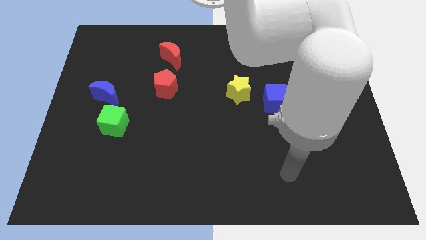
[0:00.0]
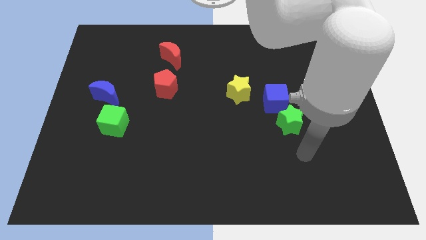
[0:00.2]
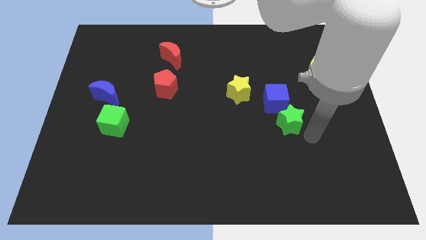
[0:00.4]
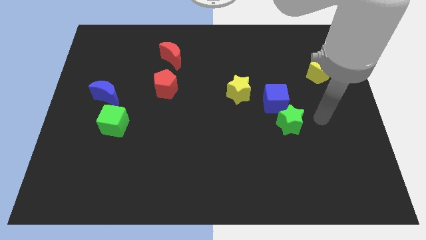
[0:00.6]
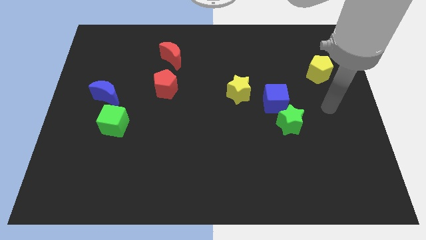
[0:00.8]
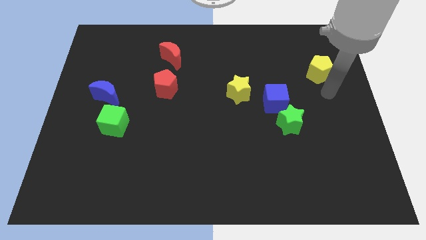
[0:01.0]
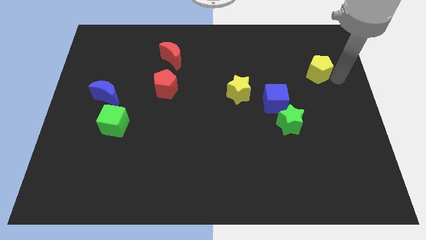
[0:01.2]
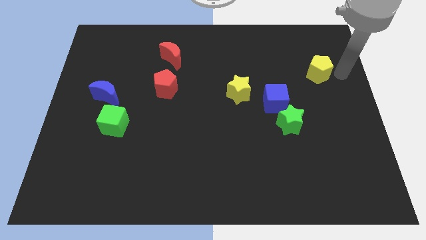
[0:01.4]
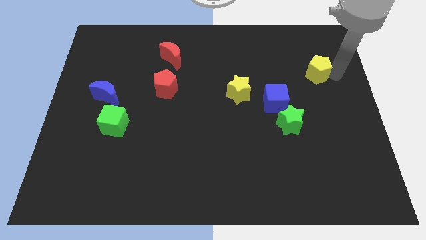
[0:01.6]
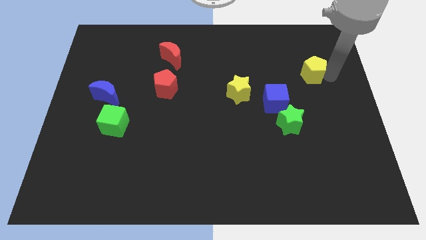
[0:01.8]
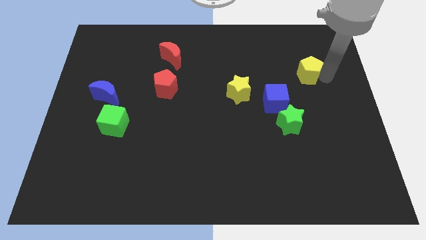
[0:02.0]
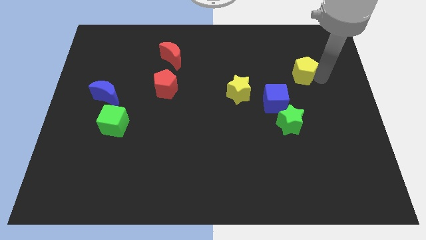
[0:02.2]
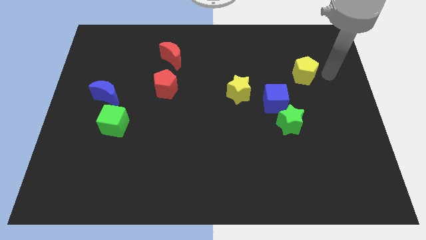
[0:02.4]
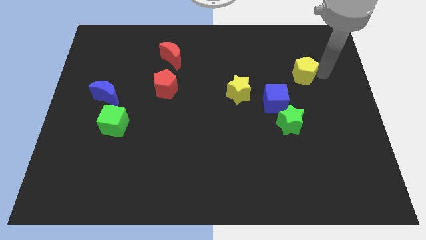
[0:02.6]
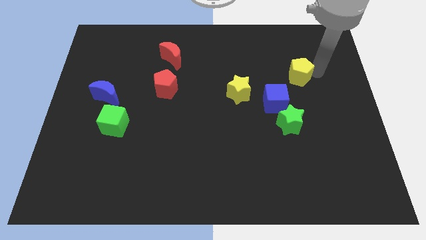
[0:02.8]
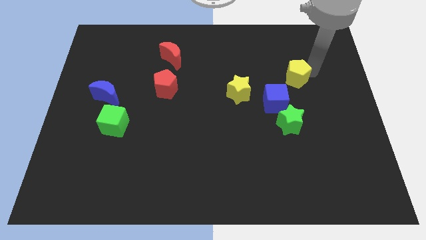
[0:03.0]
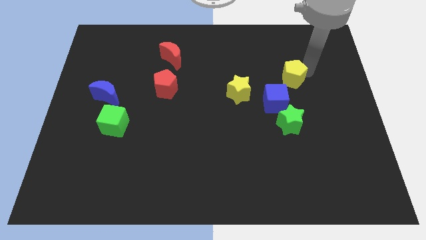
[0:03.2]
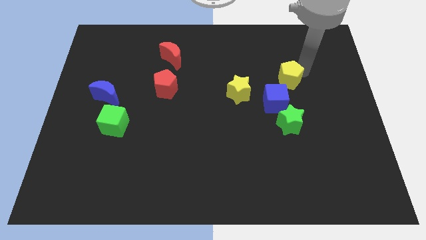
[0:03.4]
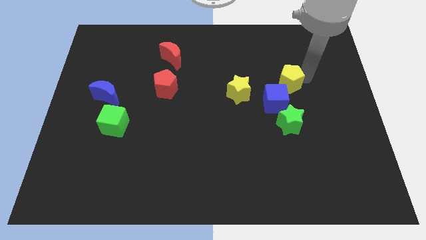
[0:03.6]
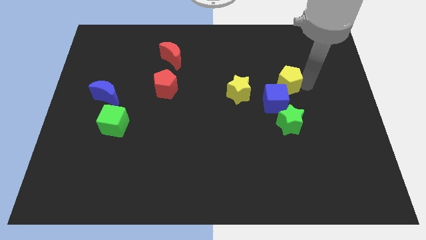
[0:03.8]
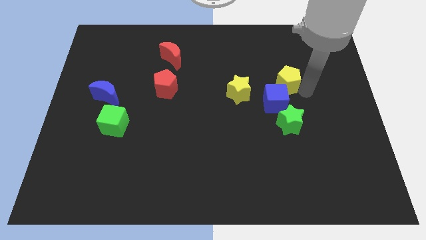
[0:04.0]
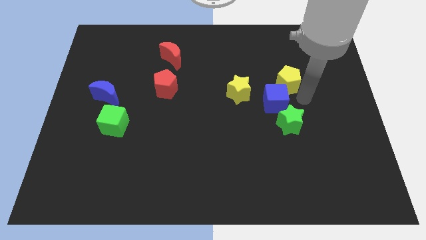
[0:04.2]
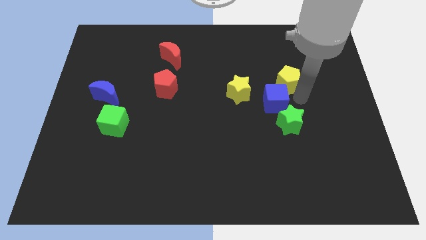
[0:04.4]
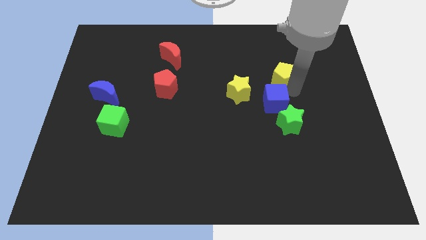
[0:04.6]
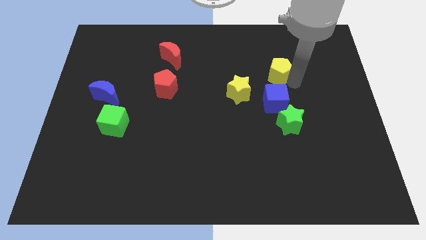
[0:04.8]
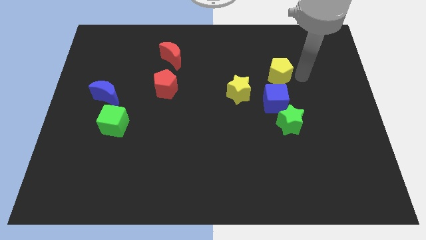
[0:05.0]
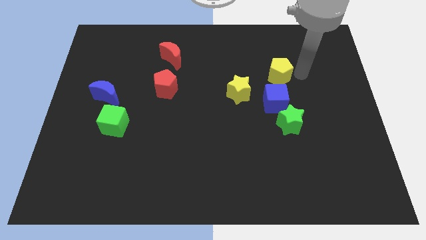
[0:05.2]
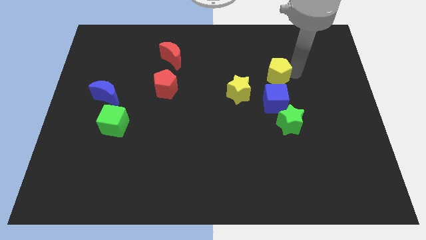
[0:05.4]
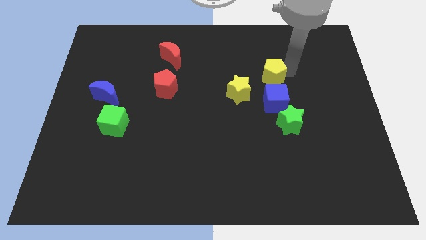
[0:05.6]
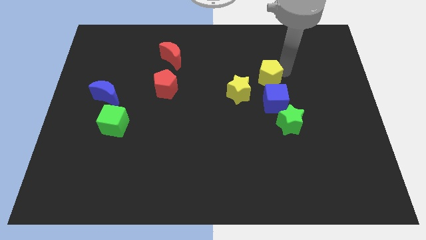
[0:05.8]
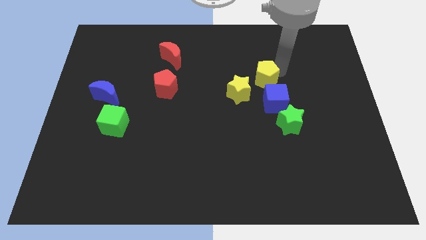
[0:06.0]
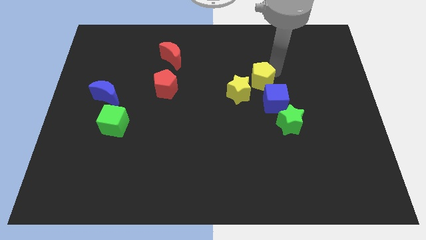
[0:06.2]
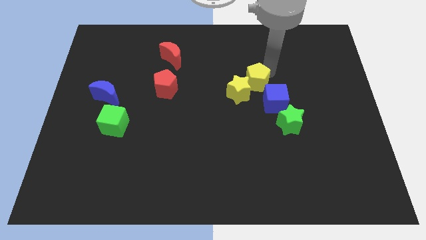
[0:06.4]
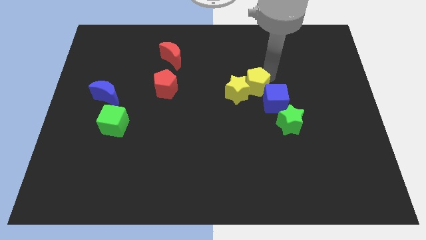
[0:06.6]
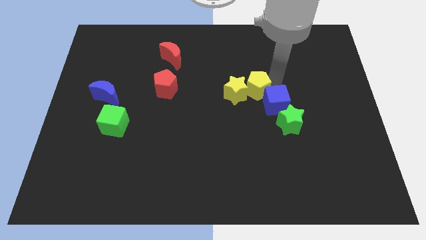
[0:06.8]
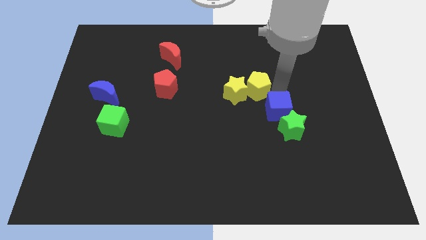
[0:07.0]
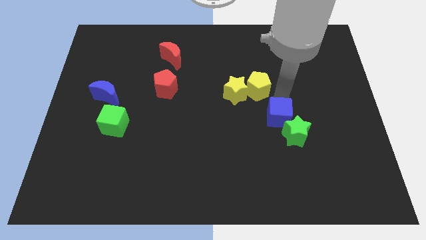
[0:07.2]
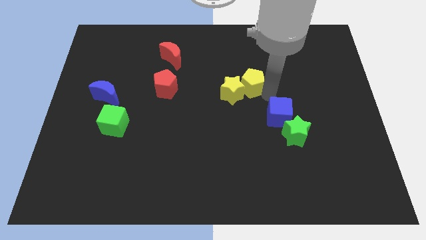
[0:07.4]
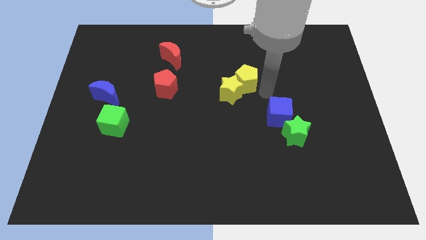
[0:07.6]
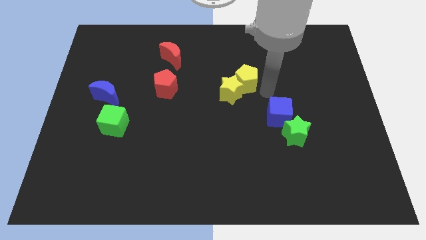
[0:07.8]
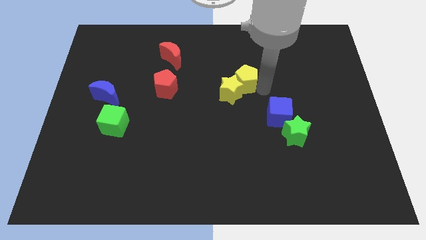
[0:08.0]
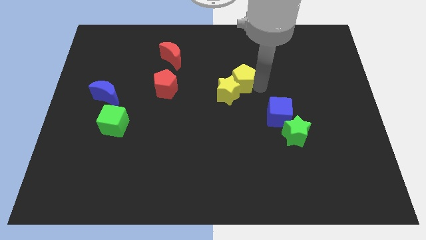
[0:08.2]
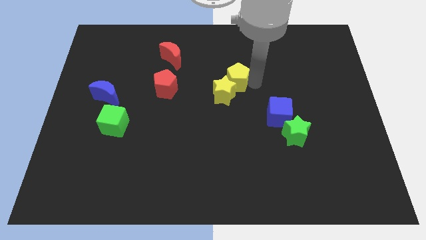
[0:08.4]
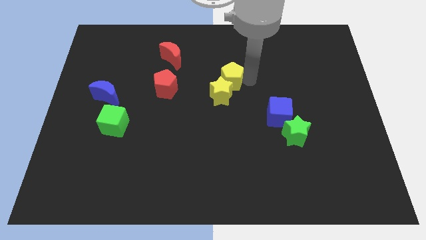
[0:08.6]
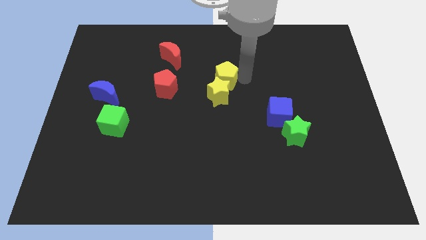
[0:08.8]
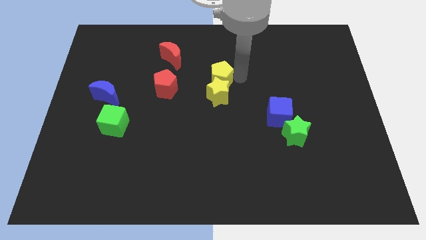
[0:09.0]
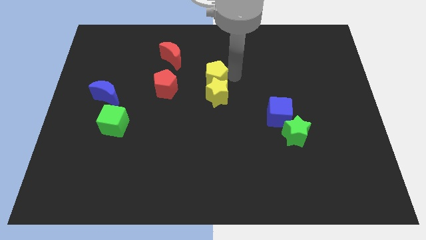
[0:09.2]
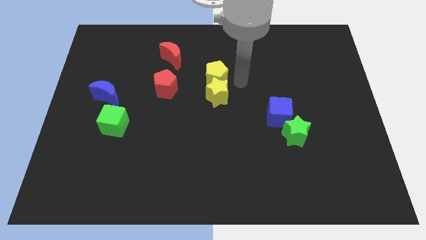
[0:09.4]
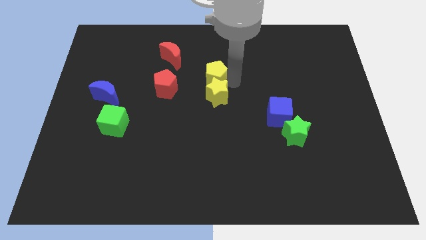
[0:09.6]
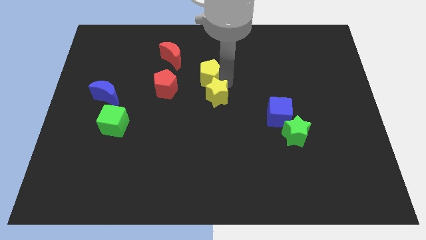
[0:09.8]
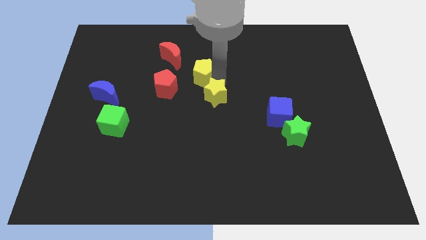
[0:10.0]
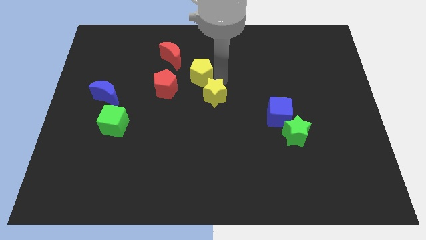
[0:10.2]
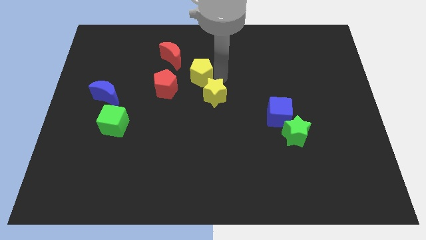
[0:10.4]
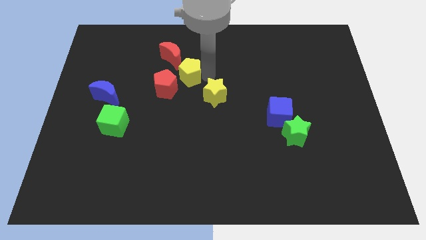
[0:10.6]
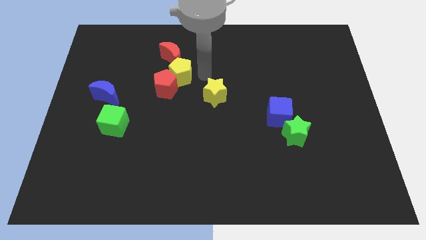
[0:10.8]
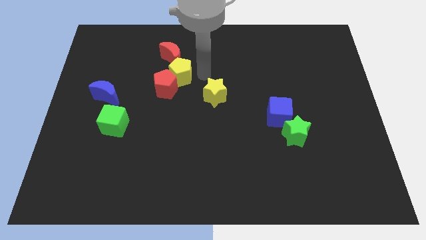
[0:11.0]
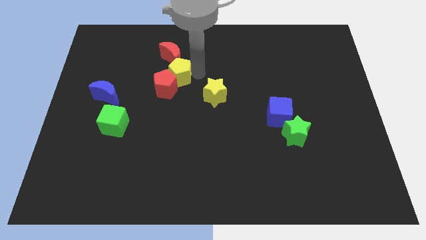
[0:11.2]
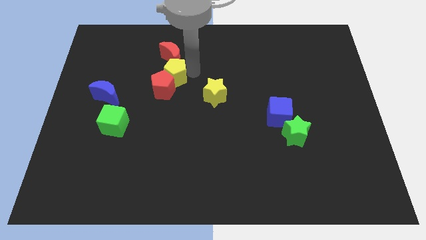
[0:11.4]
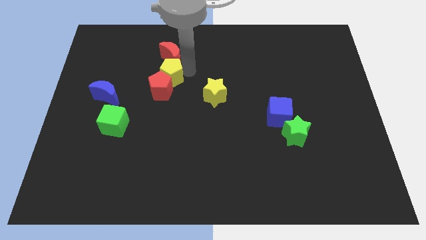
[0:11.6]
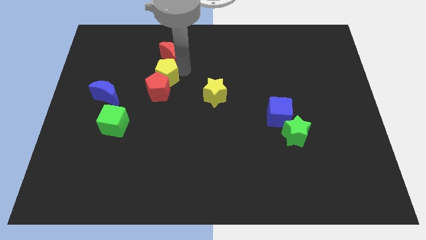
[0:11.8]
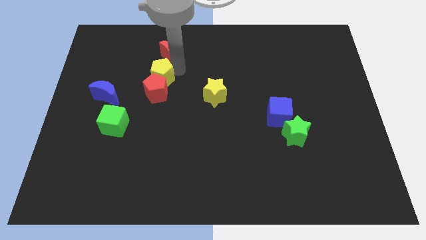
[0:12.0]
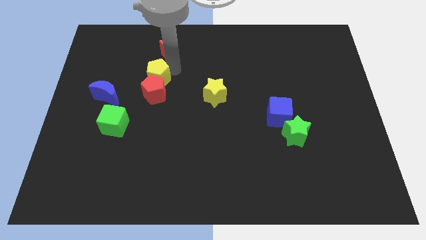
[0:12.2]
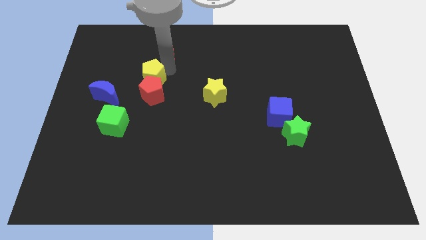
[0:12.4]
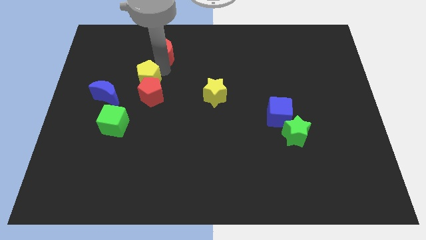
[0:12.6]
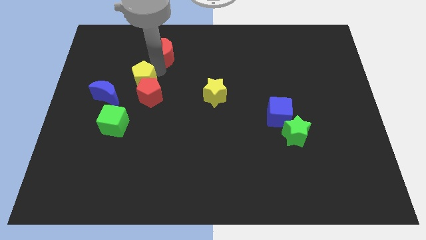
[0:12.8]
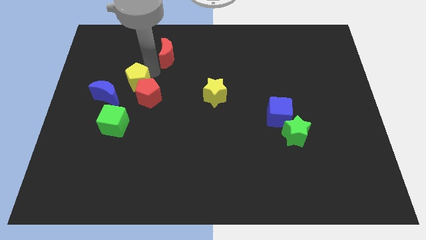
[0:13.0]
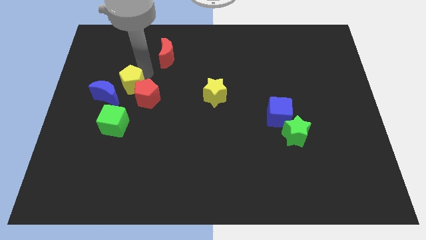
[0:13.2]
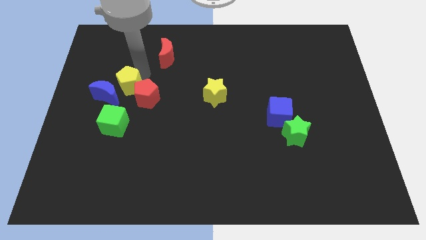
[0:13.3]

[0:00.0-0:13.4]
put the yellow pentagon close to the blue moon
